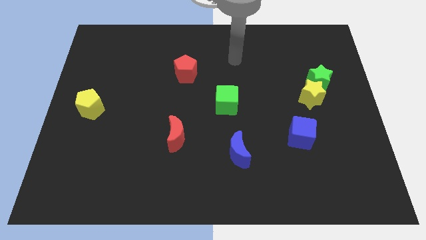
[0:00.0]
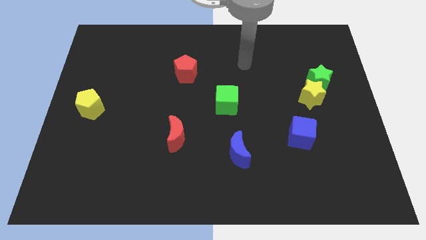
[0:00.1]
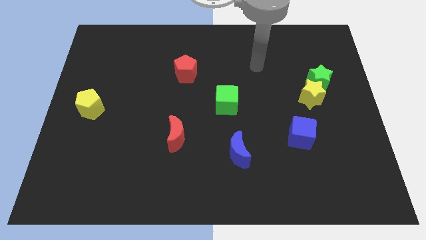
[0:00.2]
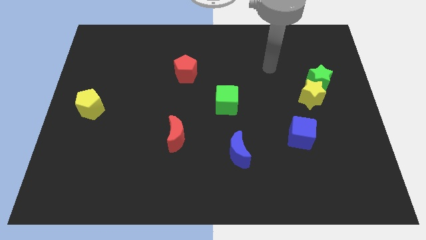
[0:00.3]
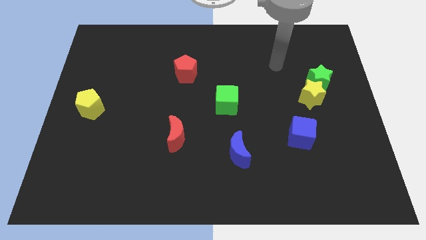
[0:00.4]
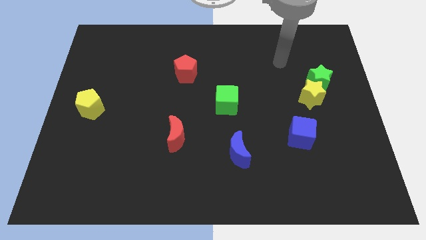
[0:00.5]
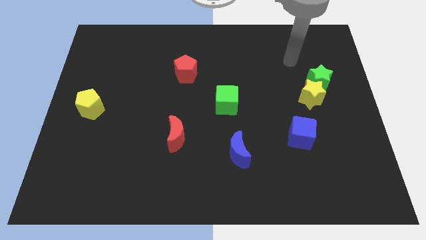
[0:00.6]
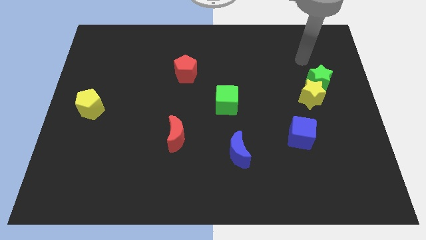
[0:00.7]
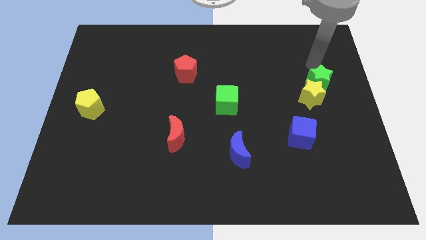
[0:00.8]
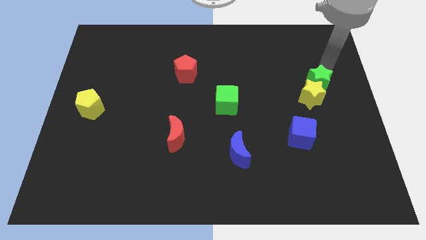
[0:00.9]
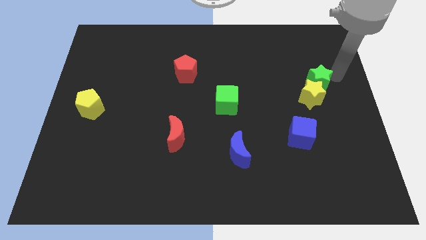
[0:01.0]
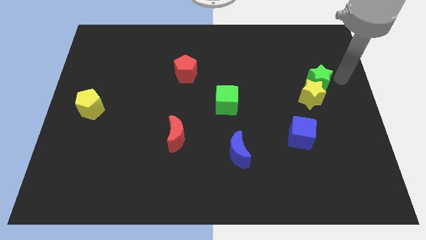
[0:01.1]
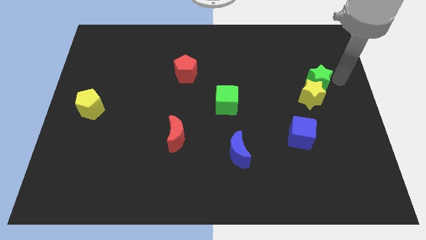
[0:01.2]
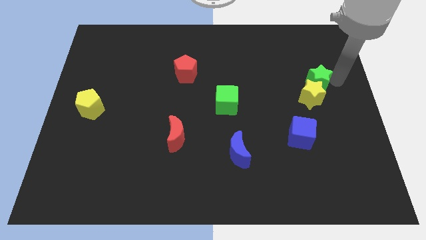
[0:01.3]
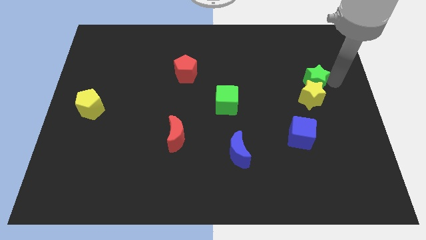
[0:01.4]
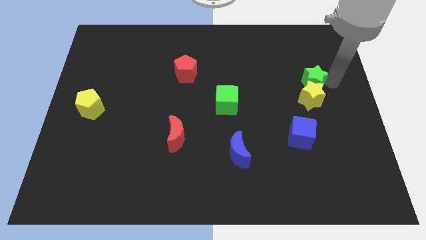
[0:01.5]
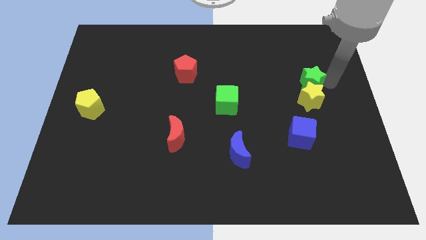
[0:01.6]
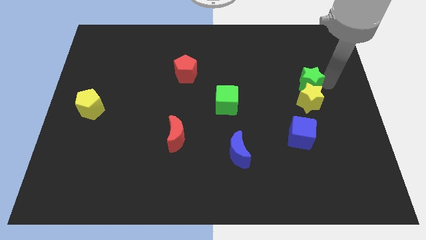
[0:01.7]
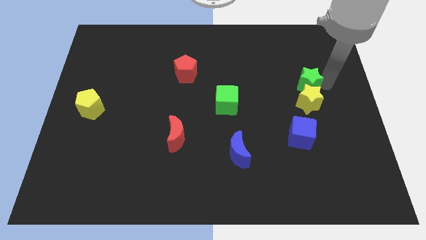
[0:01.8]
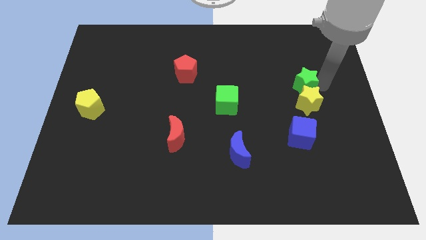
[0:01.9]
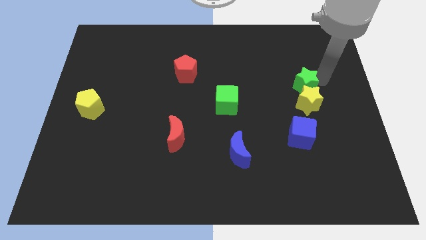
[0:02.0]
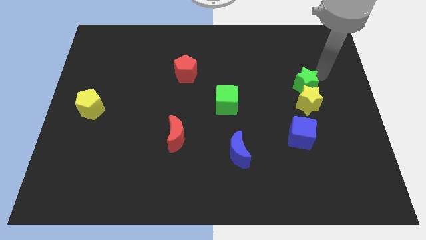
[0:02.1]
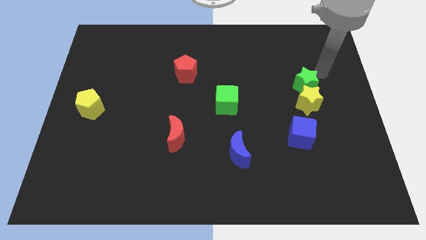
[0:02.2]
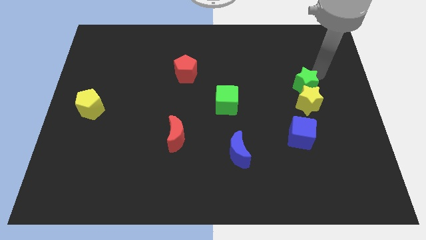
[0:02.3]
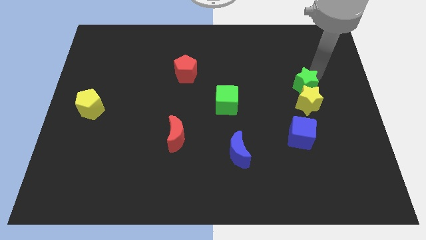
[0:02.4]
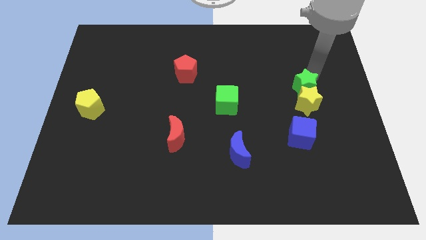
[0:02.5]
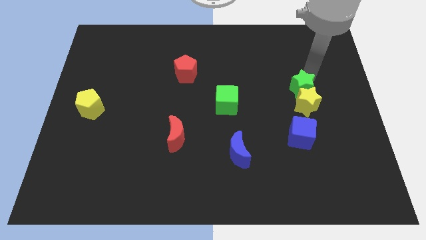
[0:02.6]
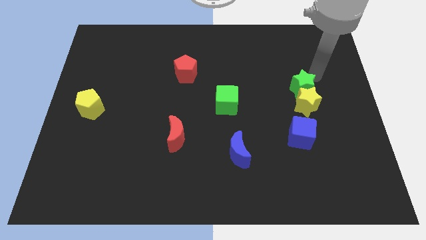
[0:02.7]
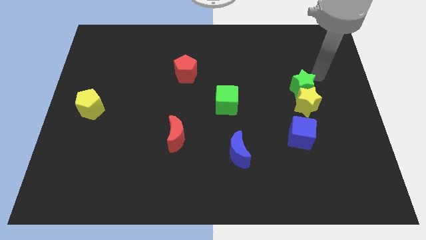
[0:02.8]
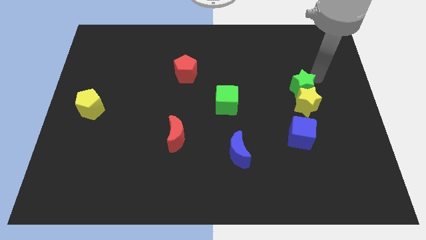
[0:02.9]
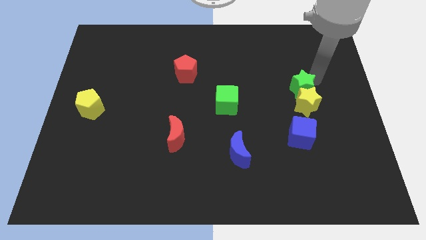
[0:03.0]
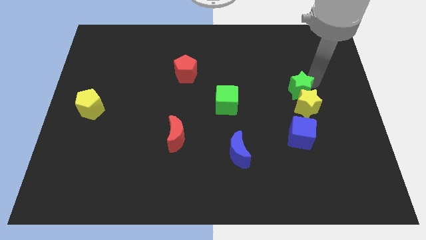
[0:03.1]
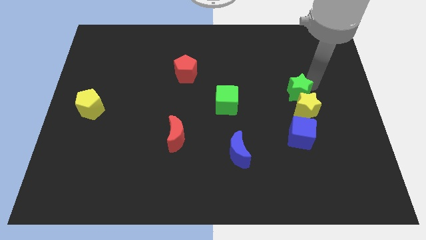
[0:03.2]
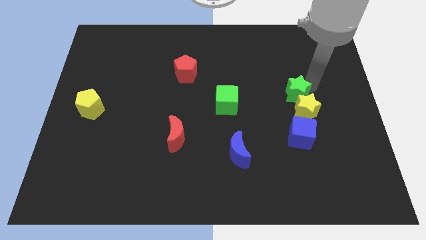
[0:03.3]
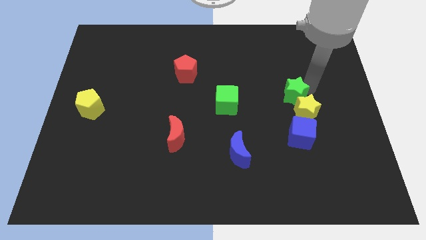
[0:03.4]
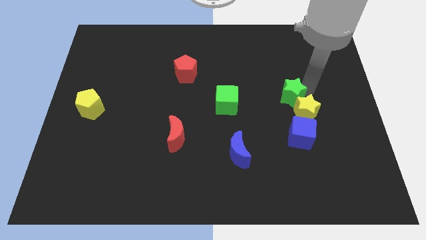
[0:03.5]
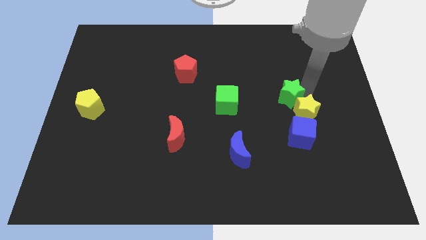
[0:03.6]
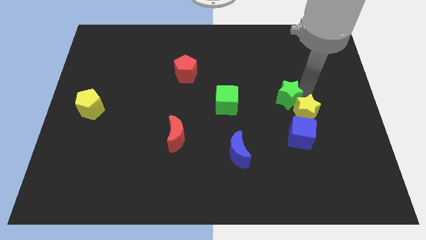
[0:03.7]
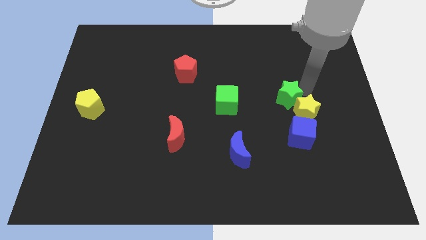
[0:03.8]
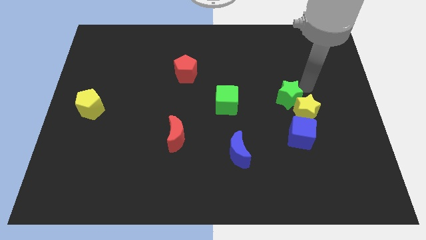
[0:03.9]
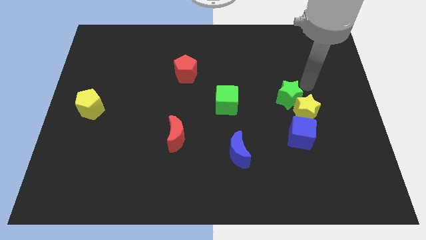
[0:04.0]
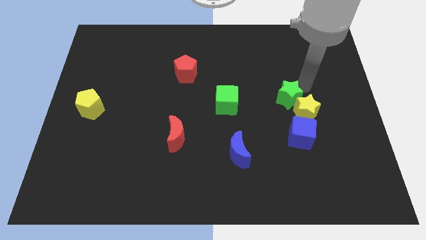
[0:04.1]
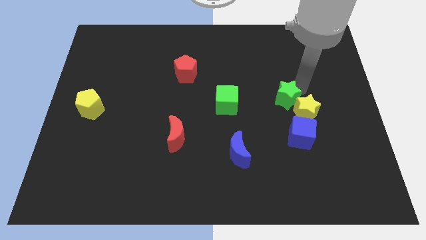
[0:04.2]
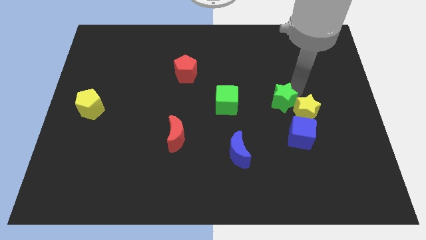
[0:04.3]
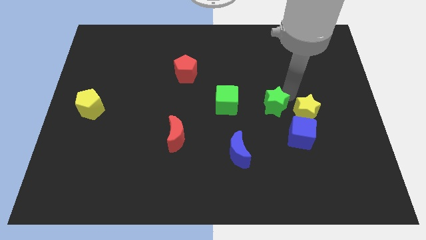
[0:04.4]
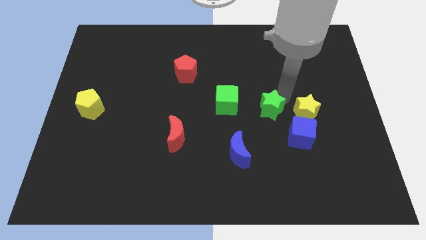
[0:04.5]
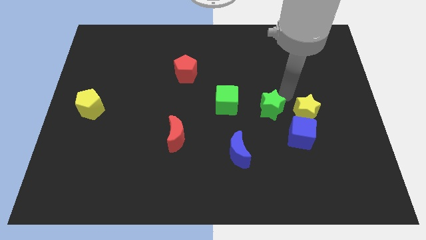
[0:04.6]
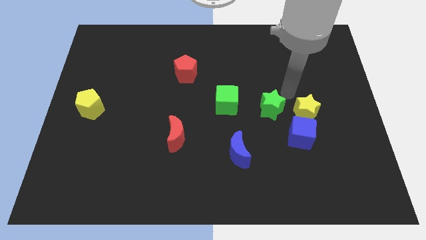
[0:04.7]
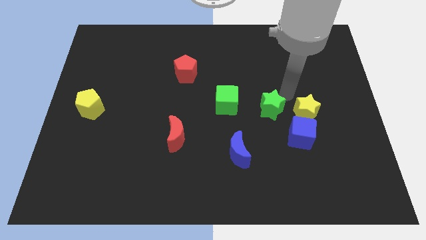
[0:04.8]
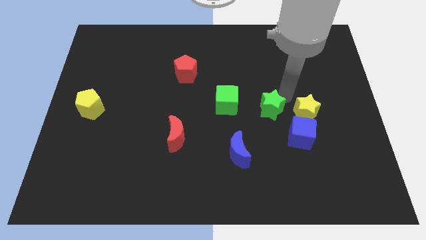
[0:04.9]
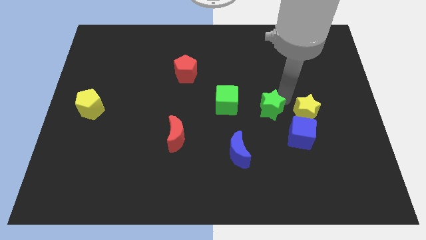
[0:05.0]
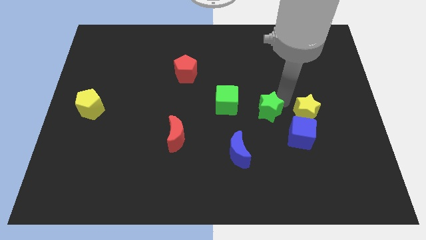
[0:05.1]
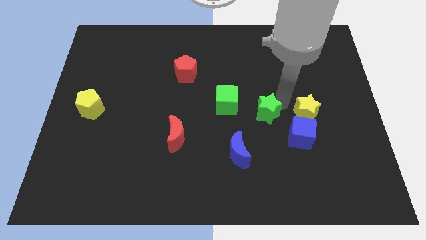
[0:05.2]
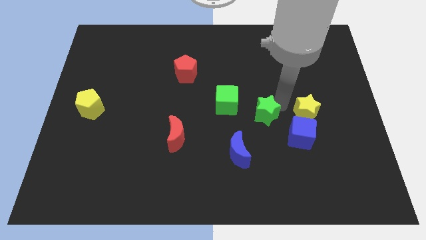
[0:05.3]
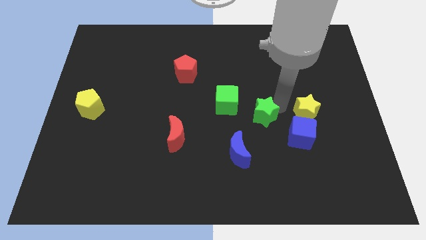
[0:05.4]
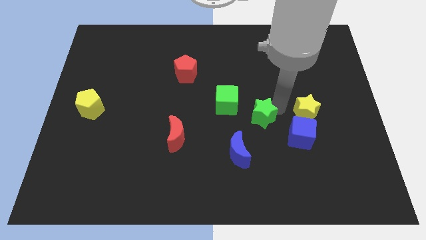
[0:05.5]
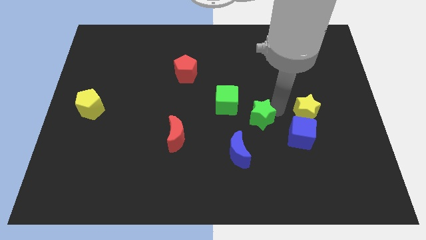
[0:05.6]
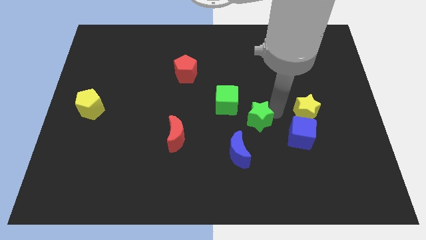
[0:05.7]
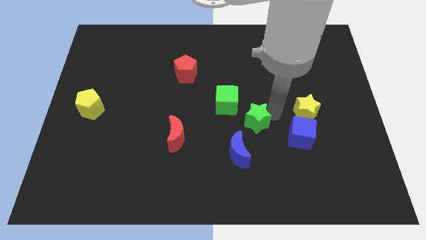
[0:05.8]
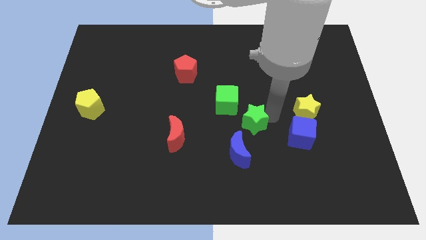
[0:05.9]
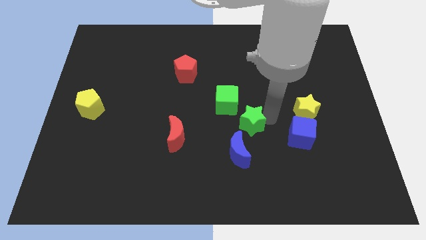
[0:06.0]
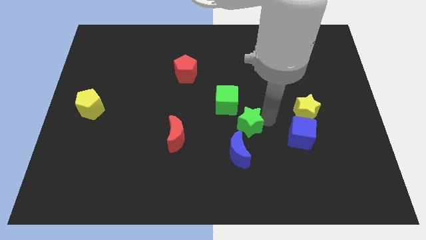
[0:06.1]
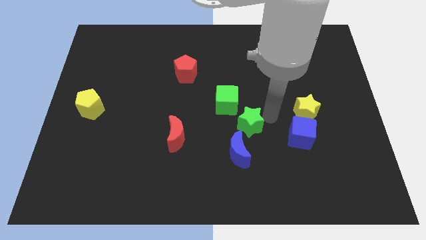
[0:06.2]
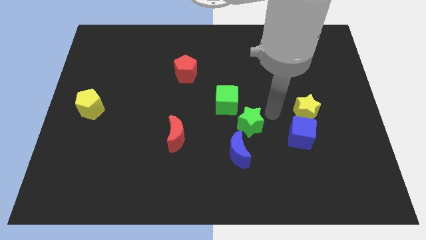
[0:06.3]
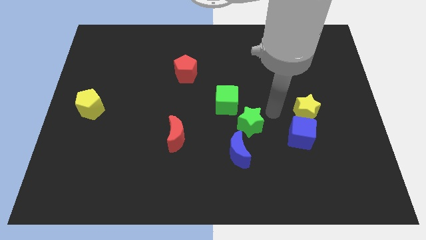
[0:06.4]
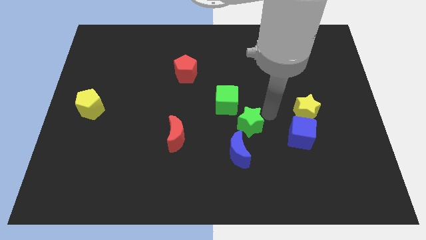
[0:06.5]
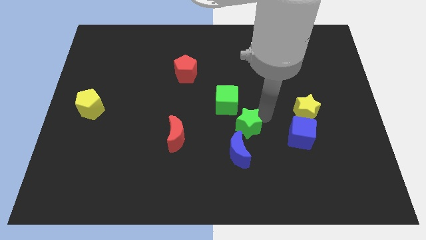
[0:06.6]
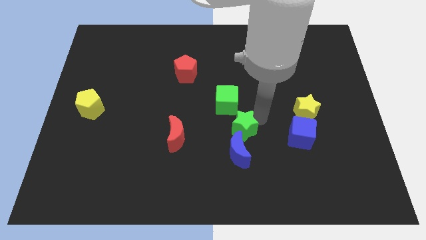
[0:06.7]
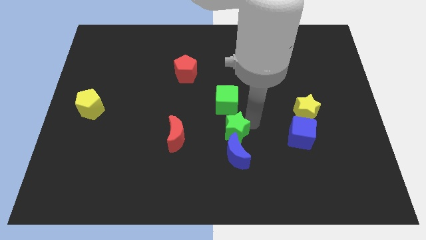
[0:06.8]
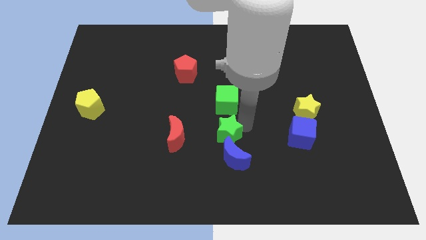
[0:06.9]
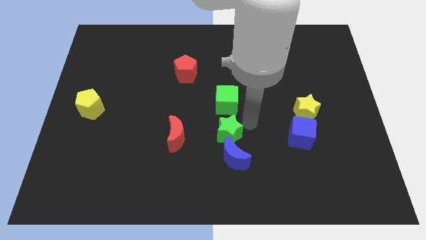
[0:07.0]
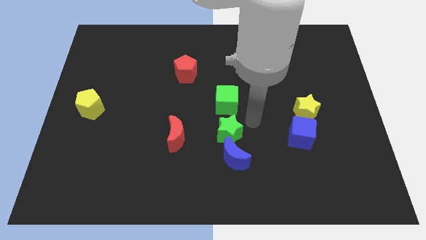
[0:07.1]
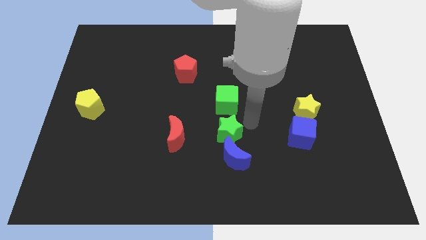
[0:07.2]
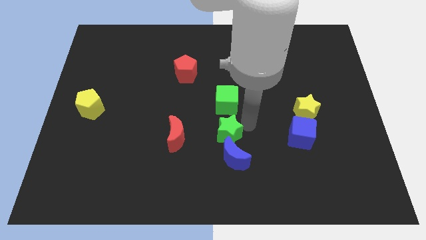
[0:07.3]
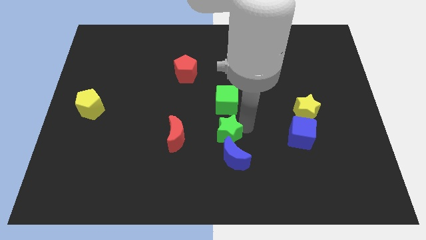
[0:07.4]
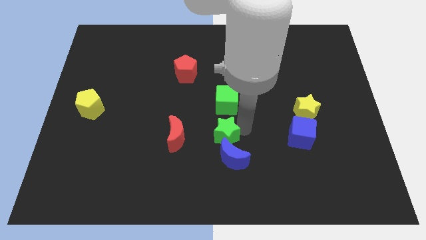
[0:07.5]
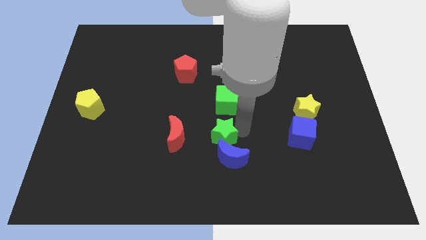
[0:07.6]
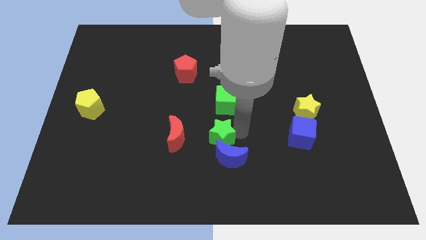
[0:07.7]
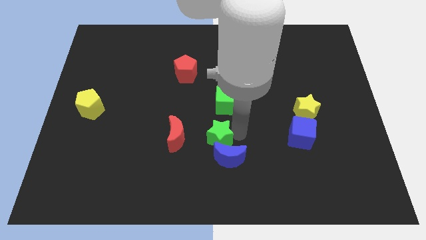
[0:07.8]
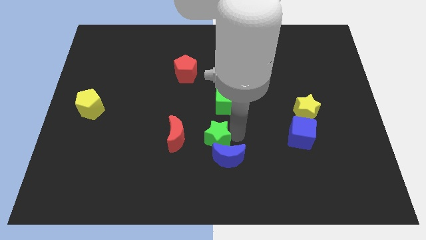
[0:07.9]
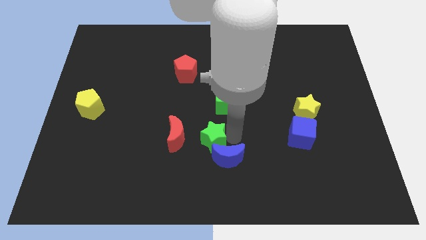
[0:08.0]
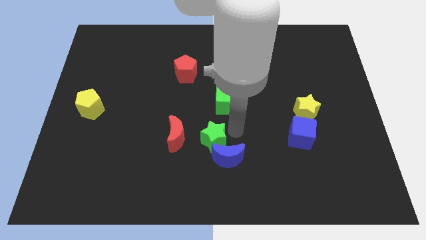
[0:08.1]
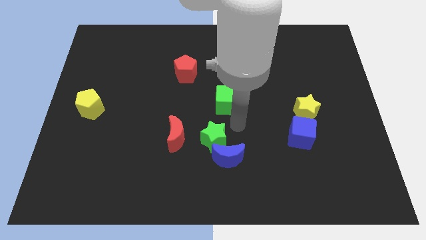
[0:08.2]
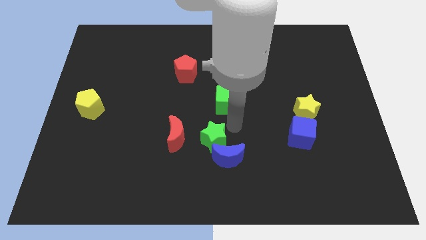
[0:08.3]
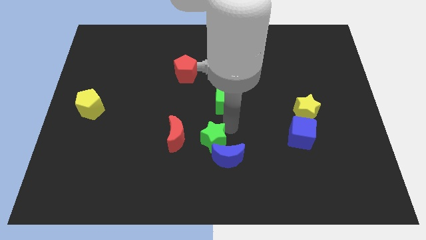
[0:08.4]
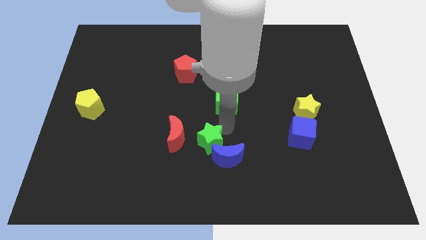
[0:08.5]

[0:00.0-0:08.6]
move the green star to the left side of the blue moon
